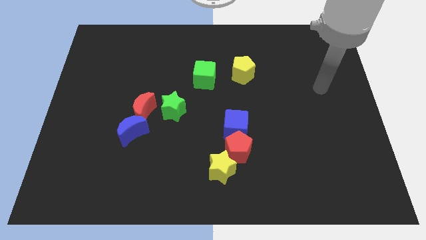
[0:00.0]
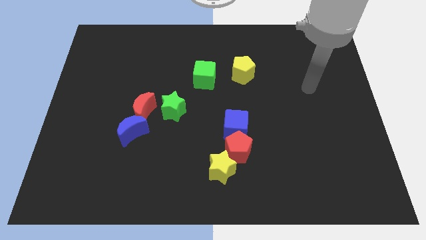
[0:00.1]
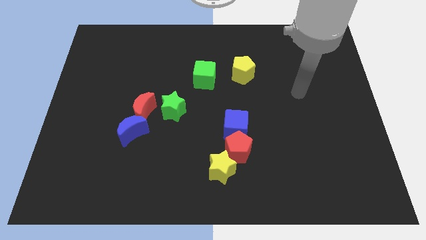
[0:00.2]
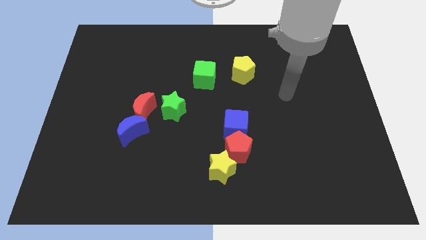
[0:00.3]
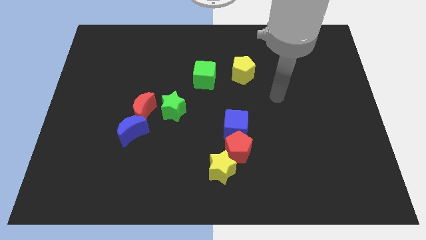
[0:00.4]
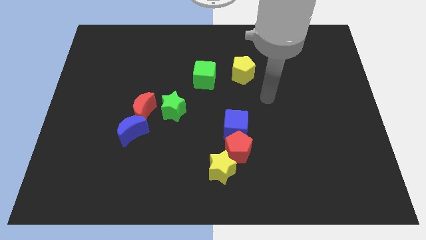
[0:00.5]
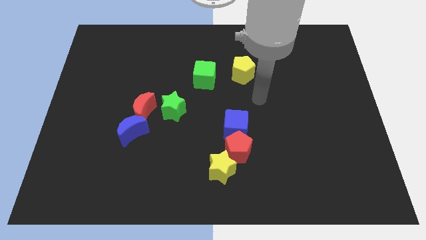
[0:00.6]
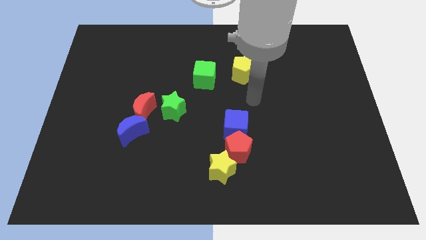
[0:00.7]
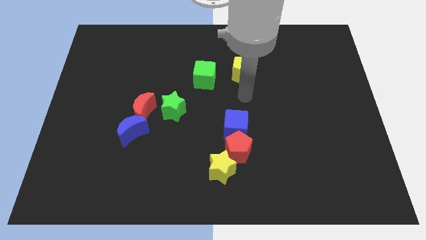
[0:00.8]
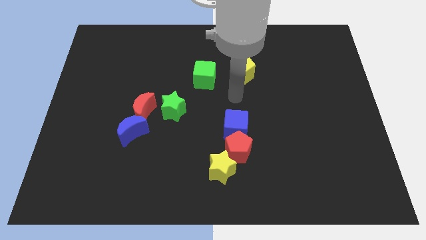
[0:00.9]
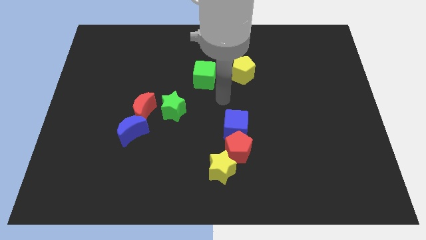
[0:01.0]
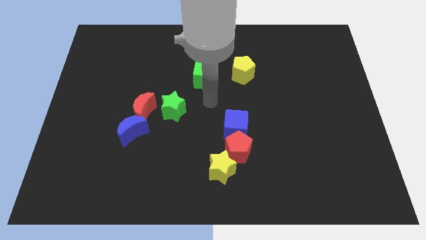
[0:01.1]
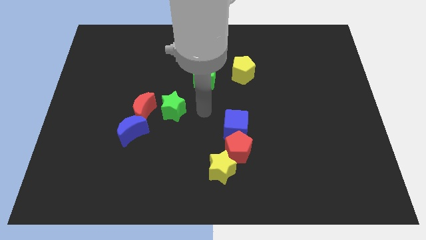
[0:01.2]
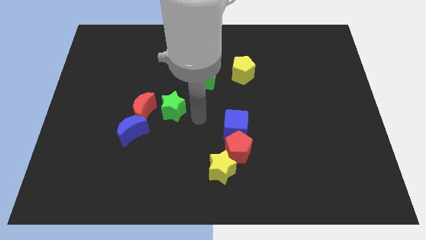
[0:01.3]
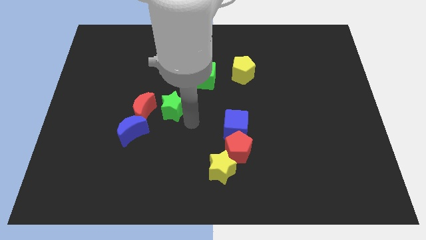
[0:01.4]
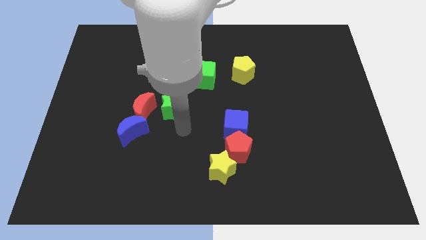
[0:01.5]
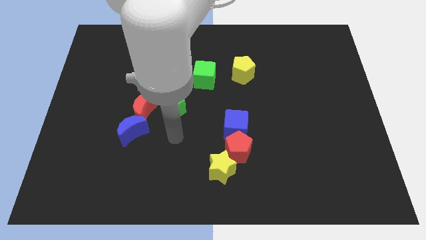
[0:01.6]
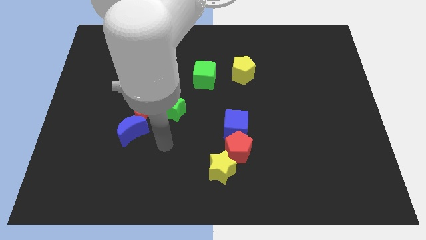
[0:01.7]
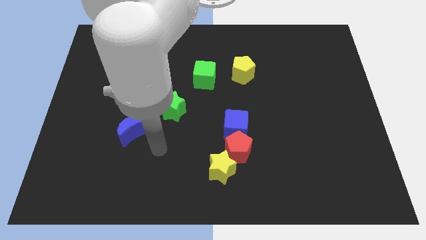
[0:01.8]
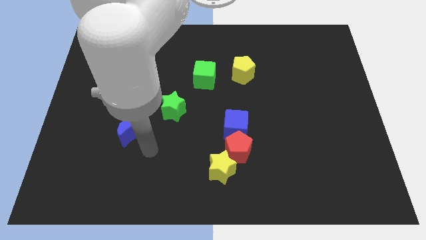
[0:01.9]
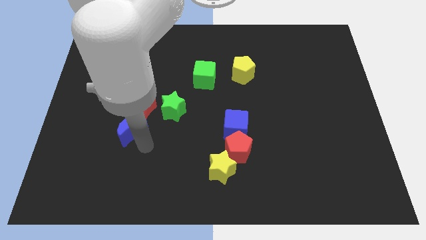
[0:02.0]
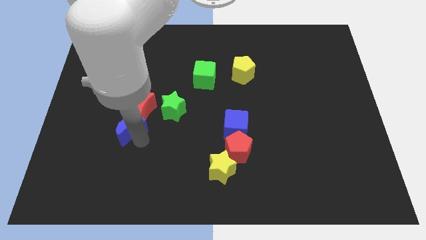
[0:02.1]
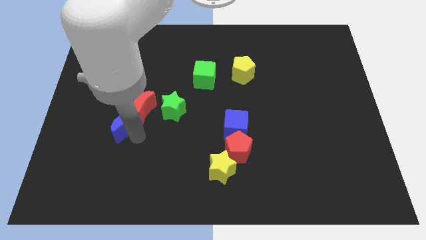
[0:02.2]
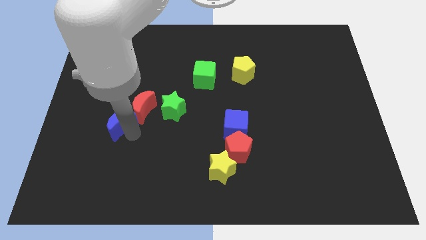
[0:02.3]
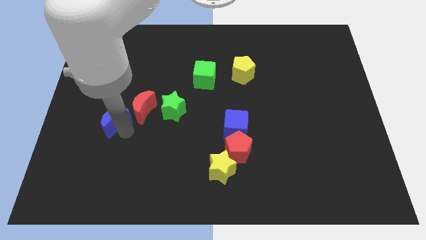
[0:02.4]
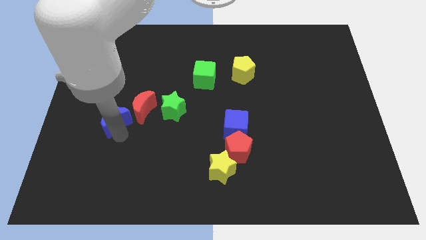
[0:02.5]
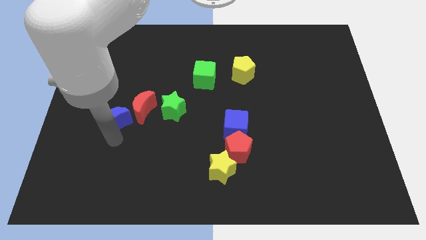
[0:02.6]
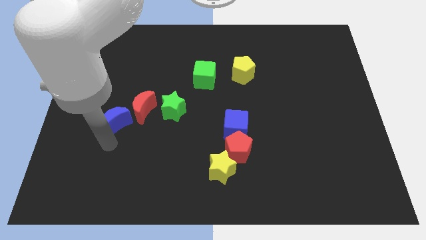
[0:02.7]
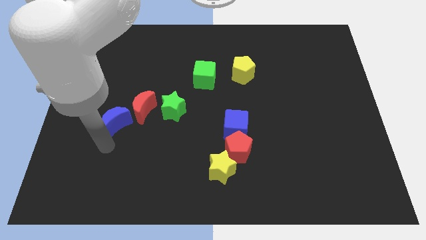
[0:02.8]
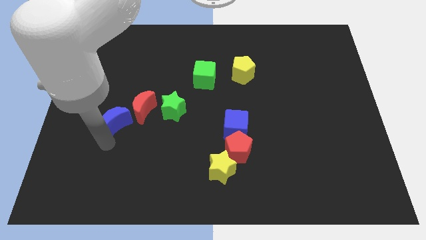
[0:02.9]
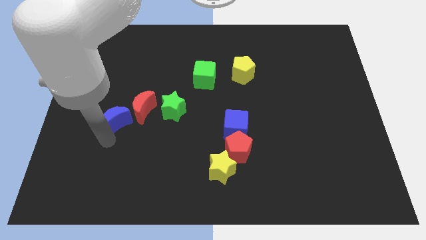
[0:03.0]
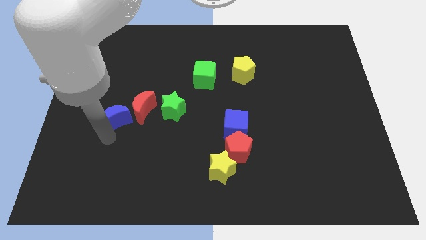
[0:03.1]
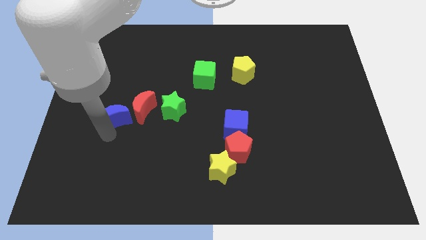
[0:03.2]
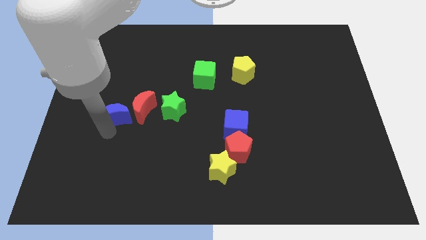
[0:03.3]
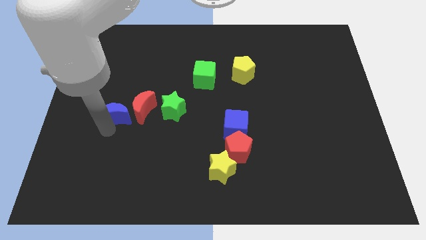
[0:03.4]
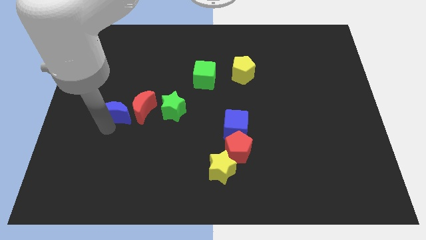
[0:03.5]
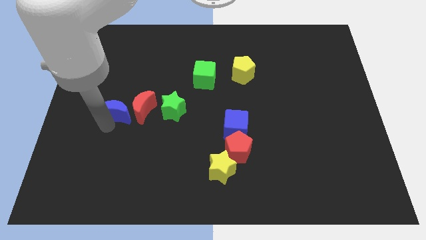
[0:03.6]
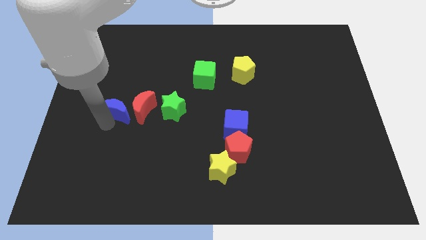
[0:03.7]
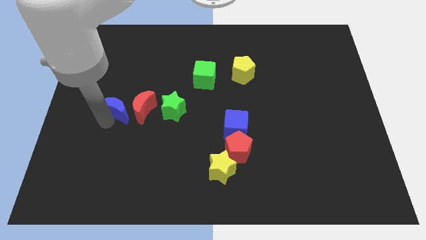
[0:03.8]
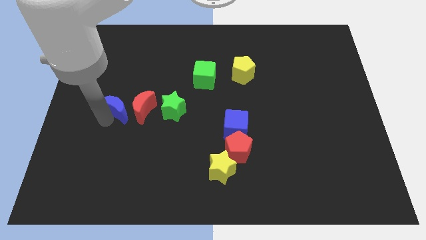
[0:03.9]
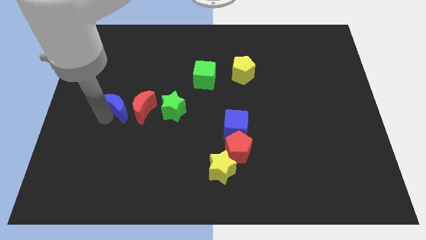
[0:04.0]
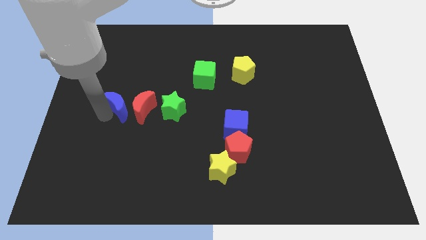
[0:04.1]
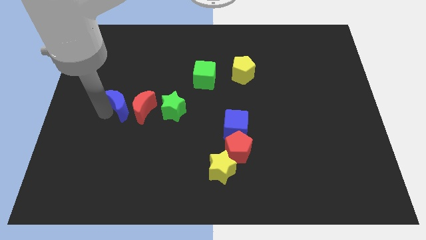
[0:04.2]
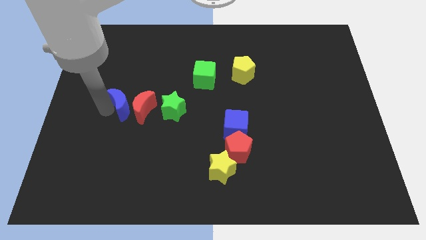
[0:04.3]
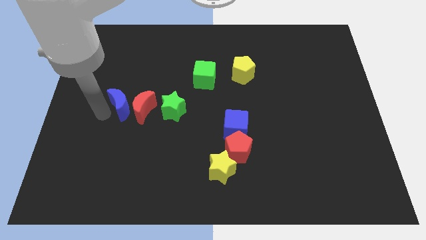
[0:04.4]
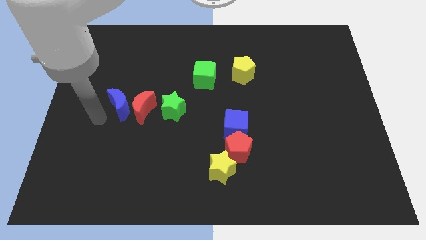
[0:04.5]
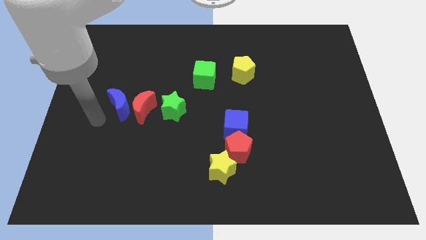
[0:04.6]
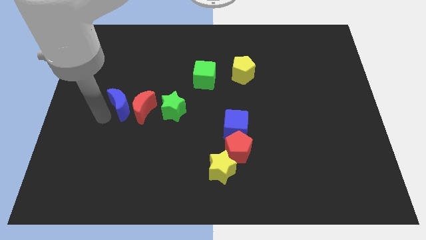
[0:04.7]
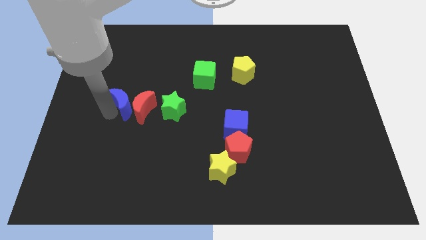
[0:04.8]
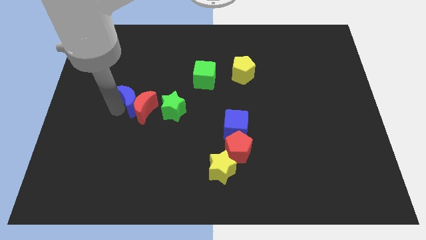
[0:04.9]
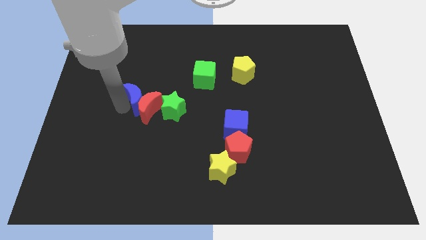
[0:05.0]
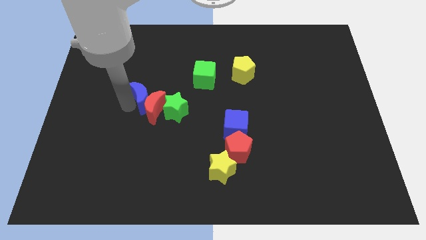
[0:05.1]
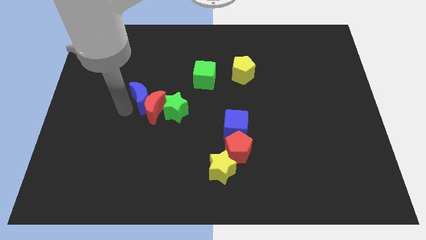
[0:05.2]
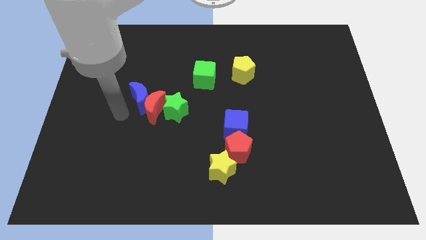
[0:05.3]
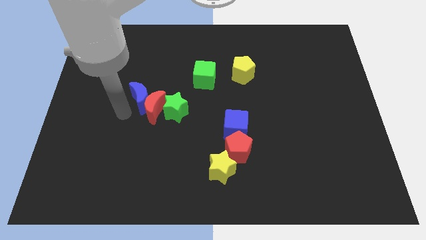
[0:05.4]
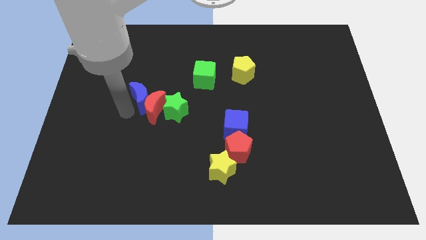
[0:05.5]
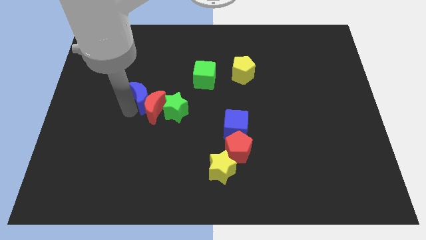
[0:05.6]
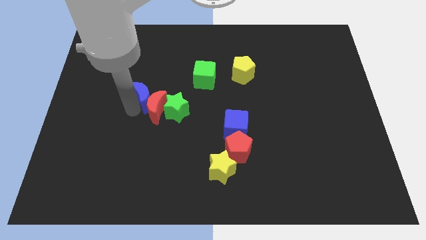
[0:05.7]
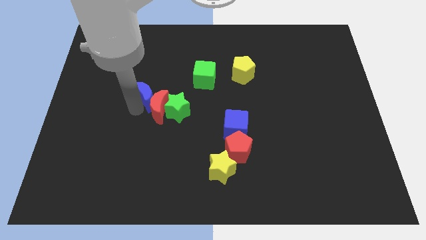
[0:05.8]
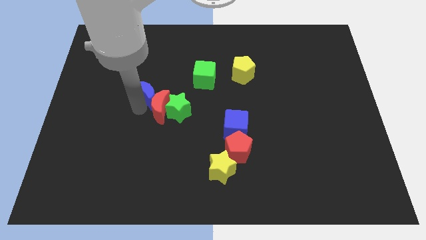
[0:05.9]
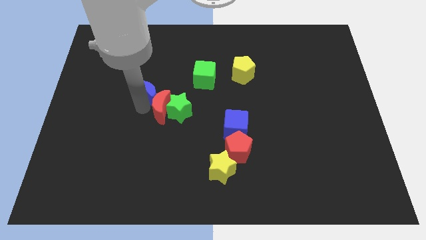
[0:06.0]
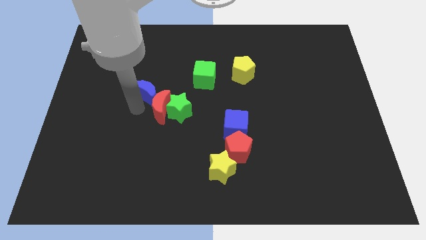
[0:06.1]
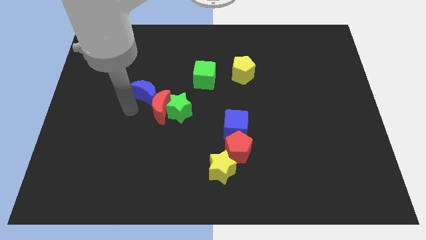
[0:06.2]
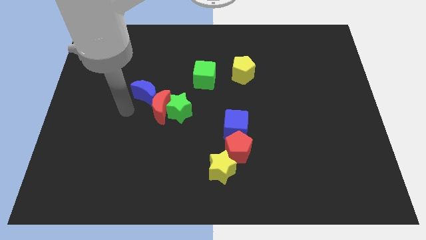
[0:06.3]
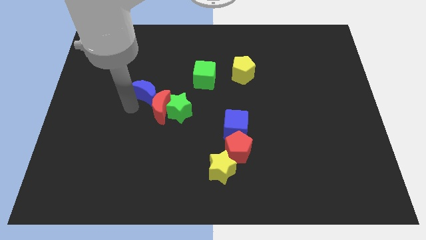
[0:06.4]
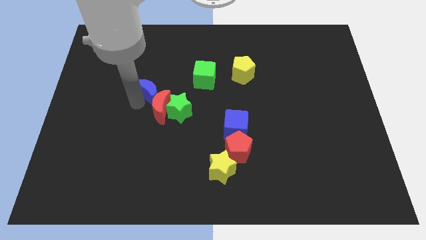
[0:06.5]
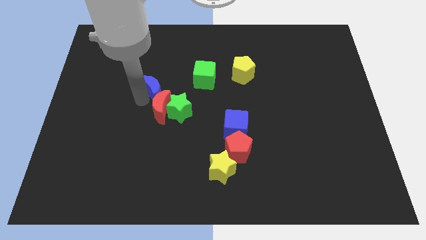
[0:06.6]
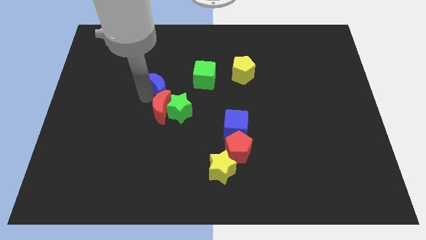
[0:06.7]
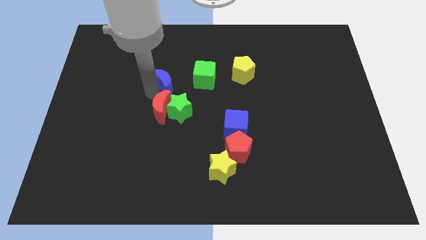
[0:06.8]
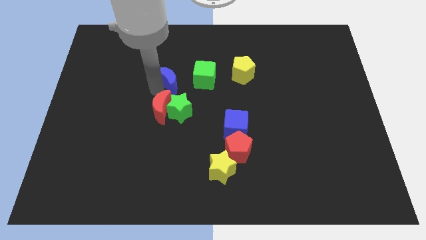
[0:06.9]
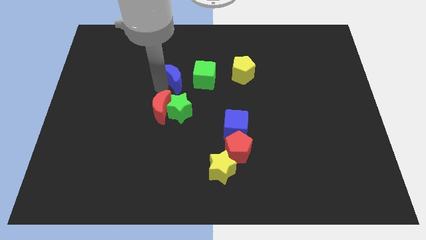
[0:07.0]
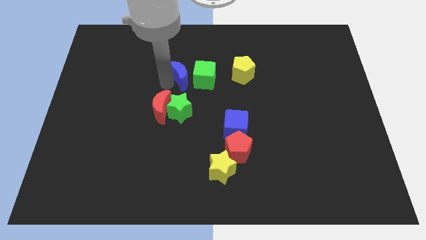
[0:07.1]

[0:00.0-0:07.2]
put the blue moon to the left side of the yellow pentagon

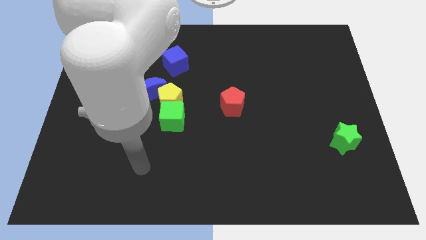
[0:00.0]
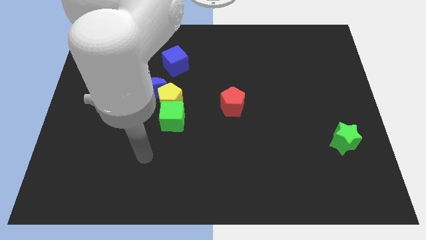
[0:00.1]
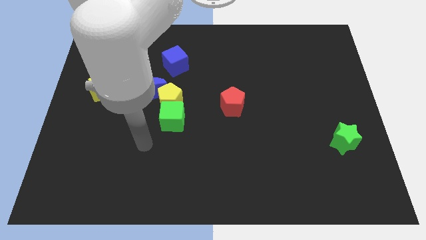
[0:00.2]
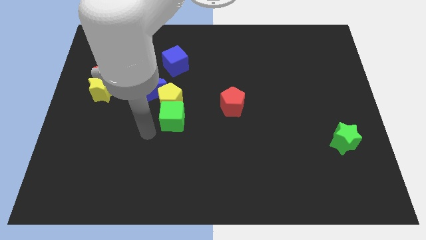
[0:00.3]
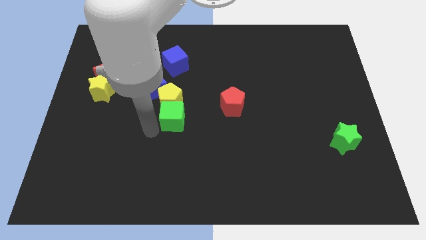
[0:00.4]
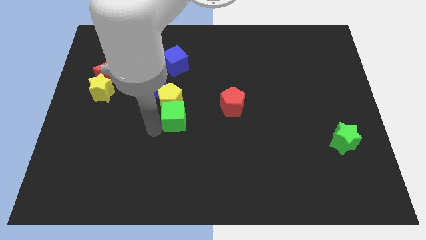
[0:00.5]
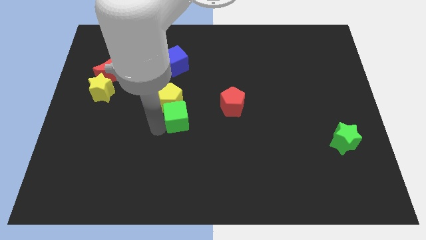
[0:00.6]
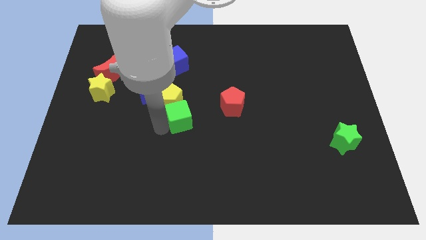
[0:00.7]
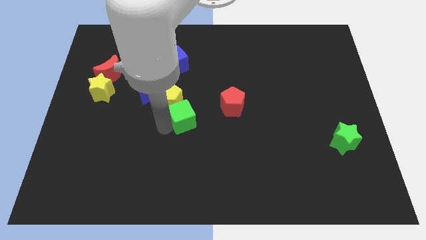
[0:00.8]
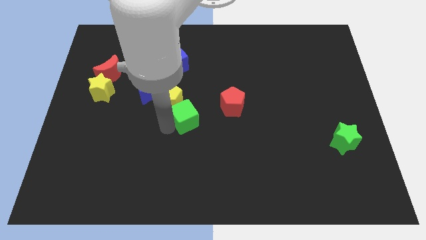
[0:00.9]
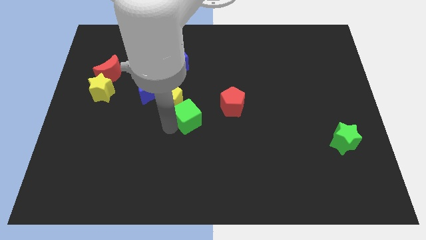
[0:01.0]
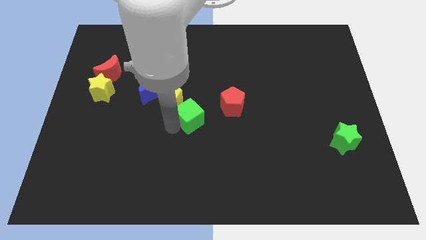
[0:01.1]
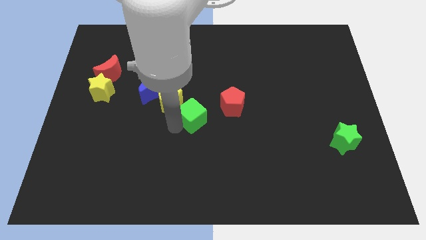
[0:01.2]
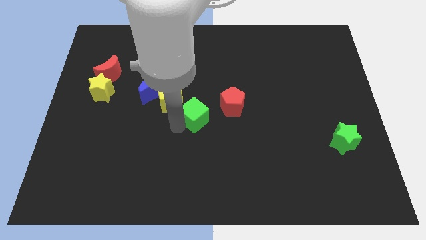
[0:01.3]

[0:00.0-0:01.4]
move the green cube to the right of the yellow pentagon
